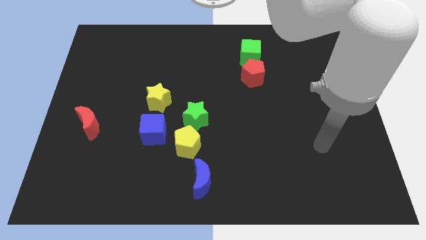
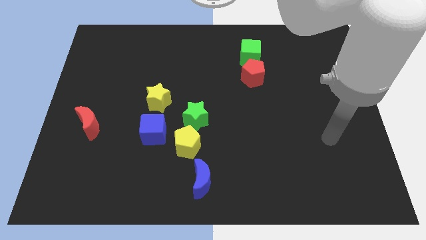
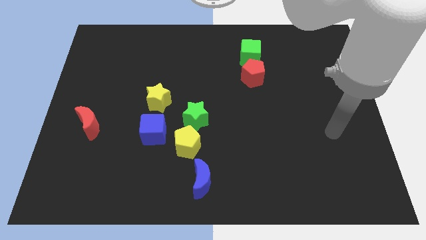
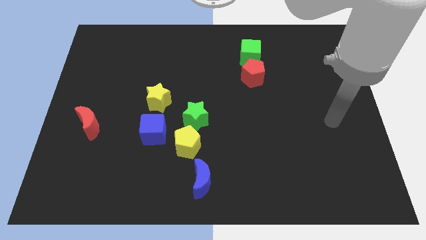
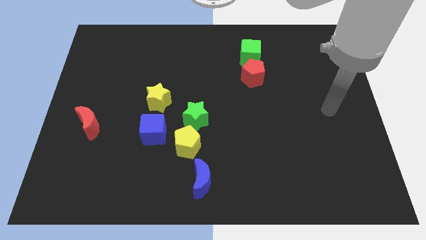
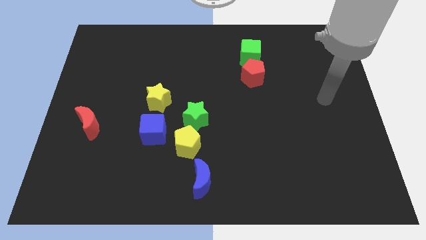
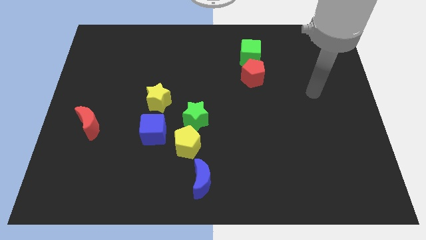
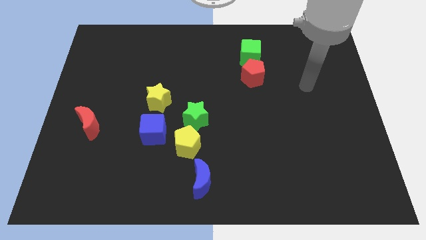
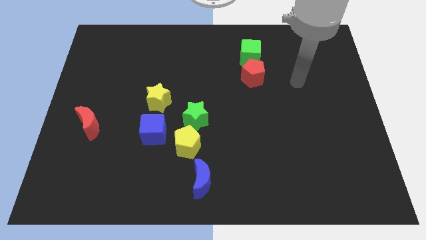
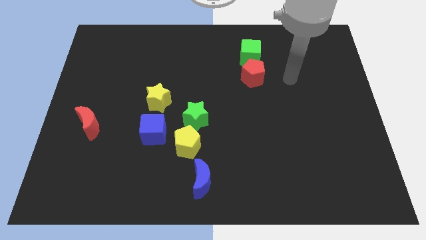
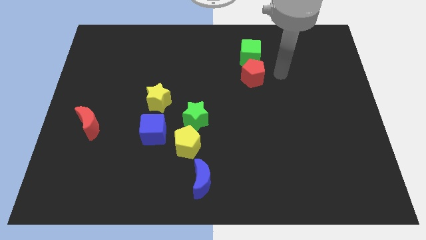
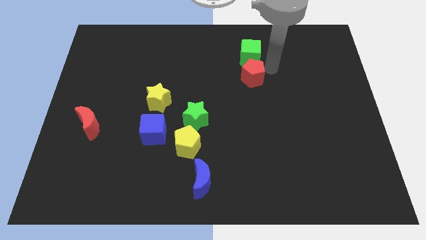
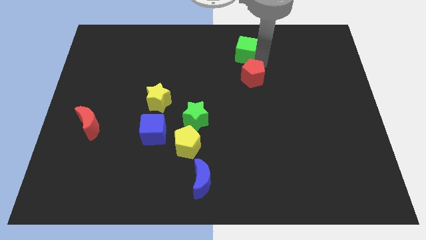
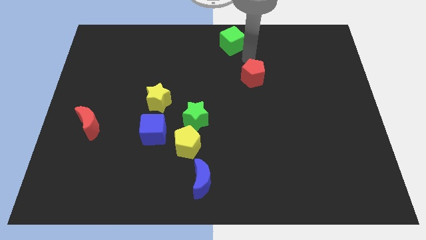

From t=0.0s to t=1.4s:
move the red pentagon away from the green cube

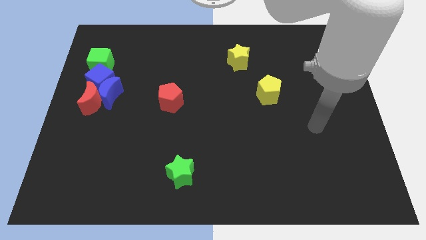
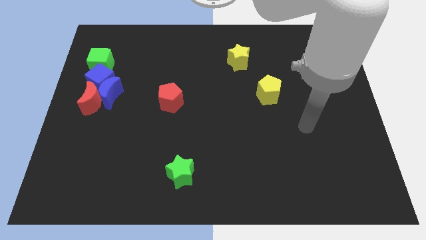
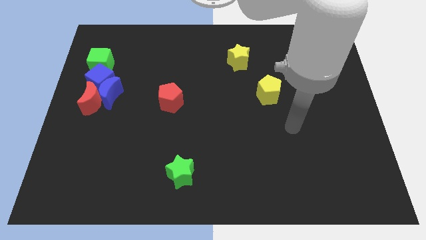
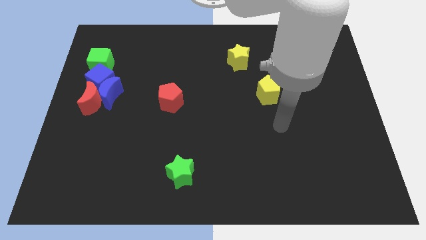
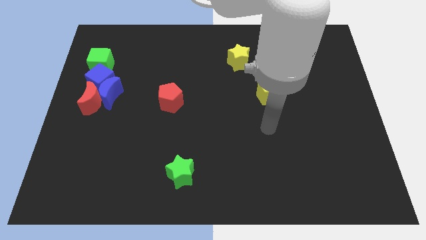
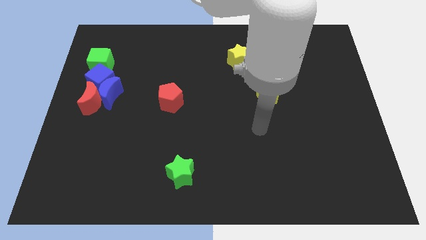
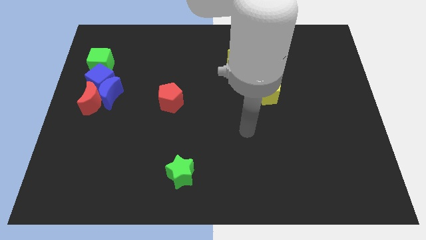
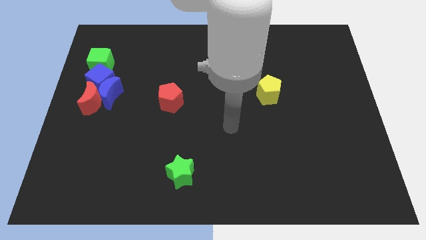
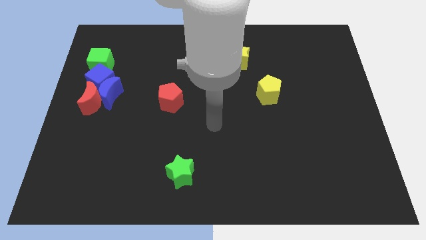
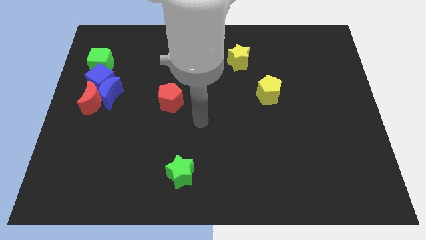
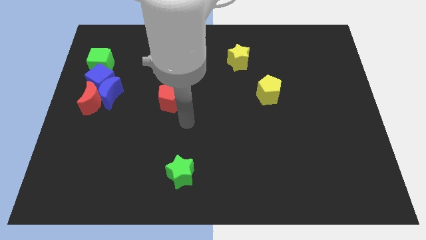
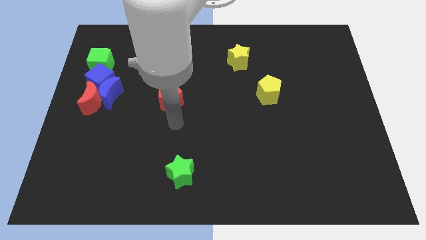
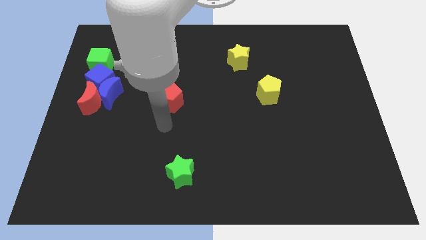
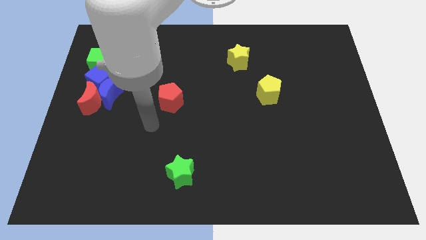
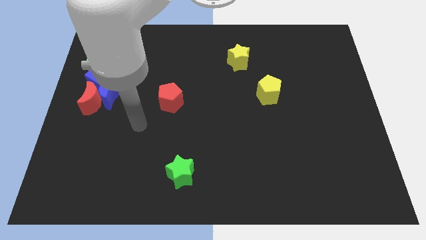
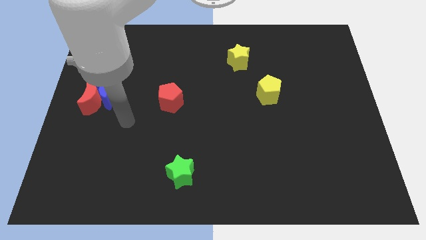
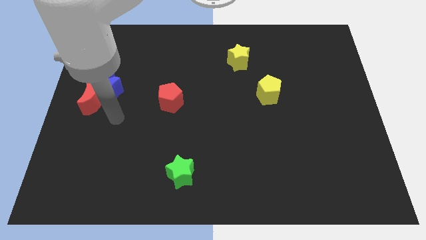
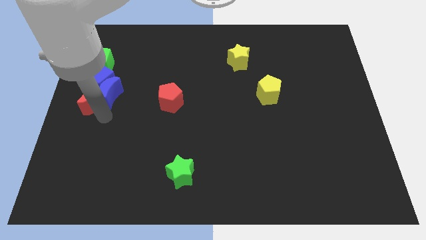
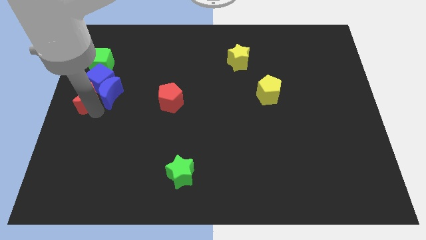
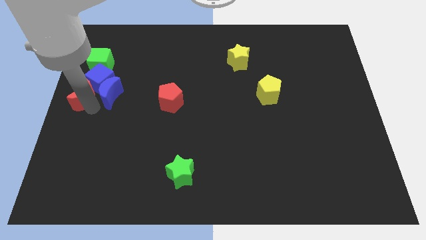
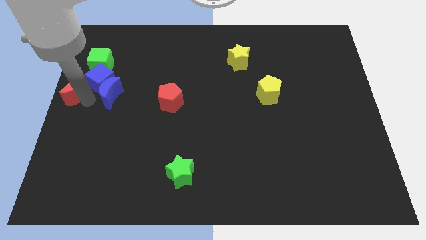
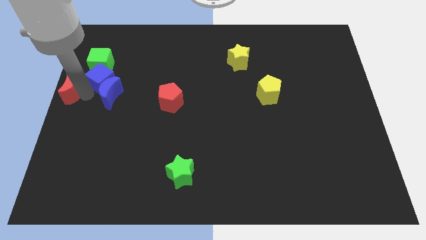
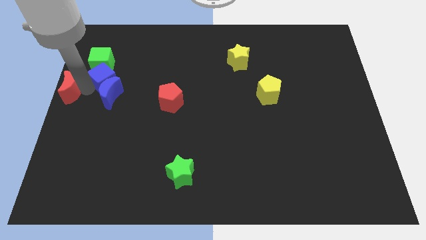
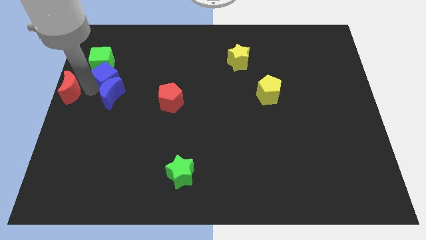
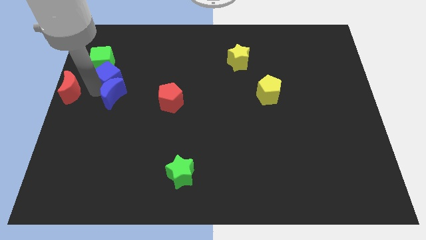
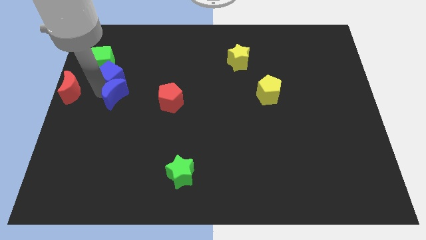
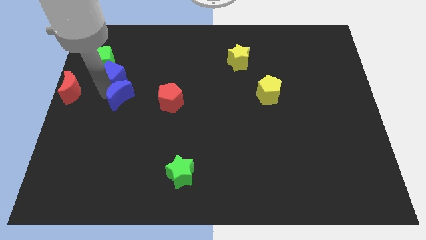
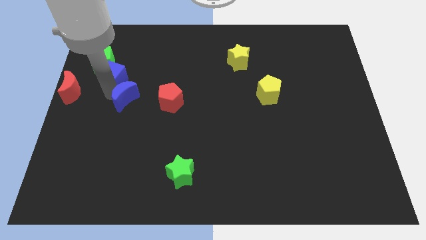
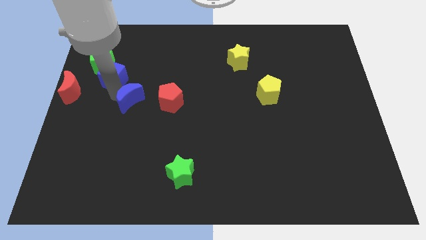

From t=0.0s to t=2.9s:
separate the blue moon from the red moon and blue cube

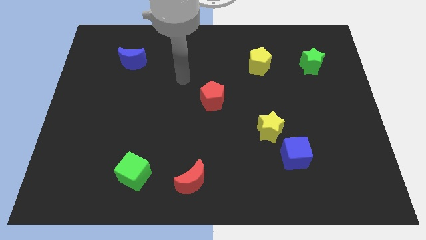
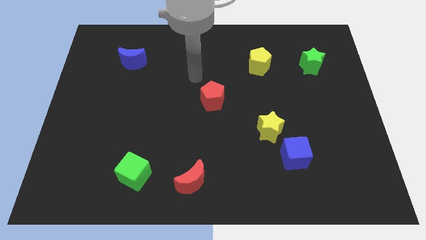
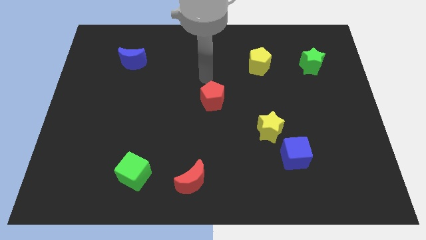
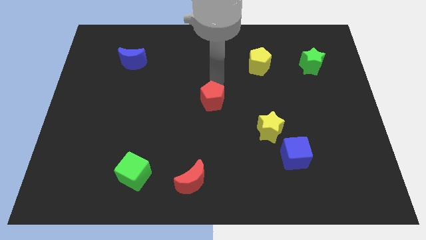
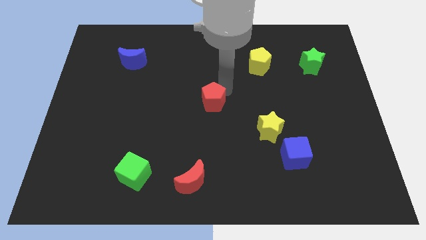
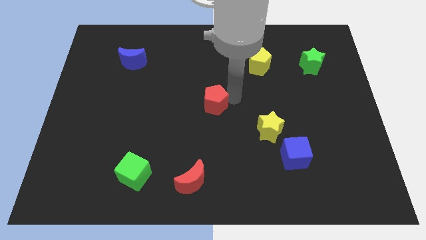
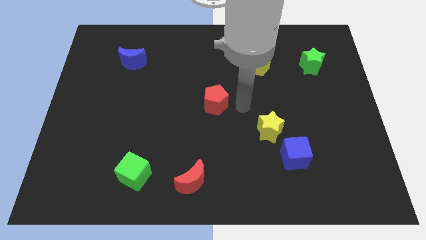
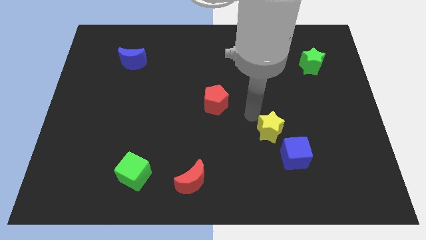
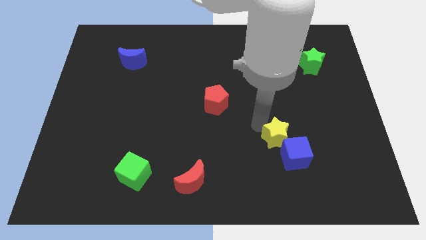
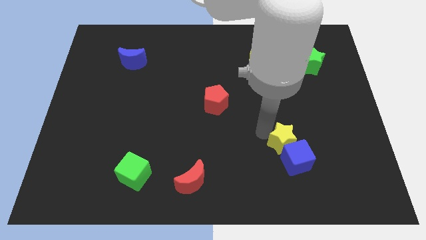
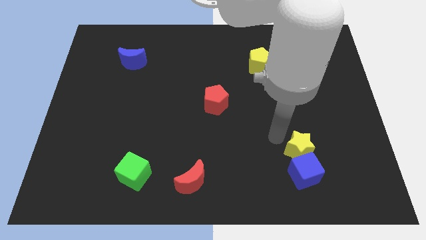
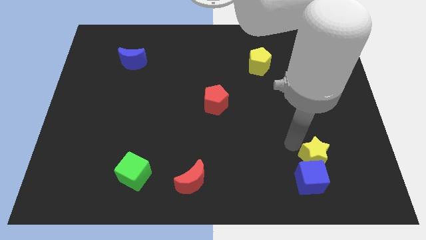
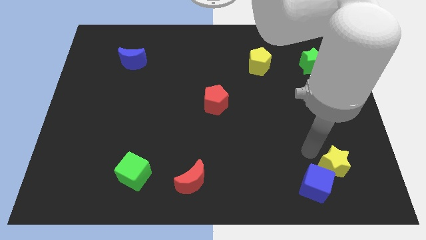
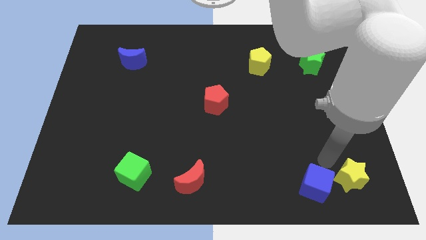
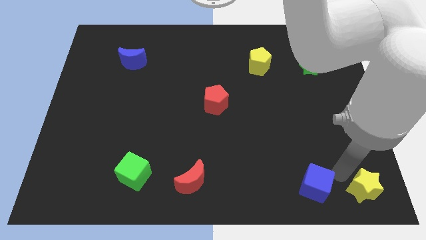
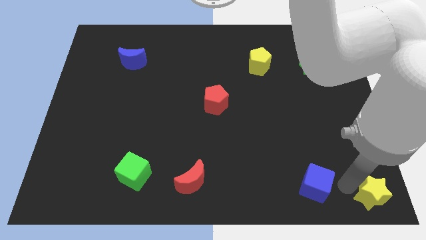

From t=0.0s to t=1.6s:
separate the blue cube from the yellow star

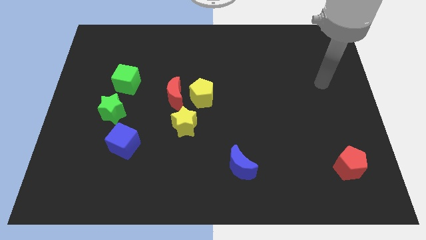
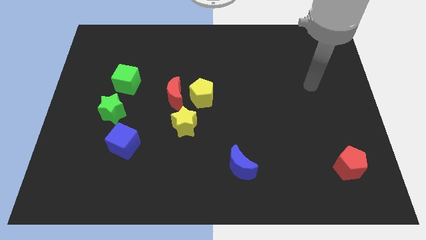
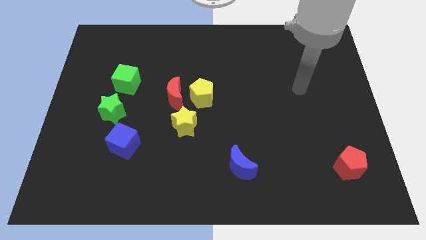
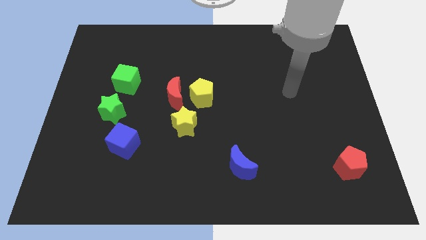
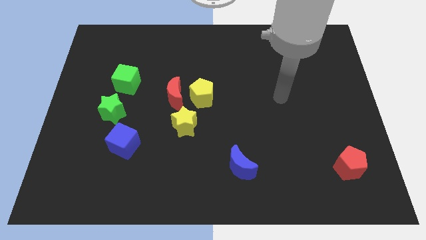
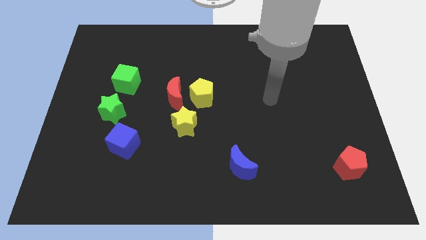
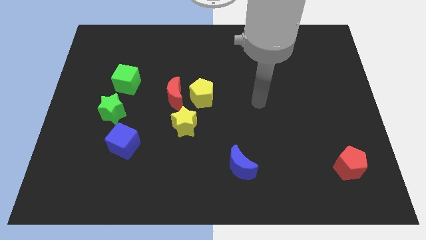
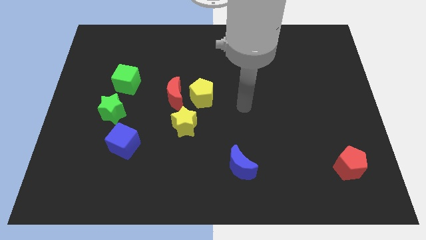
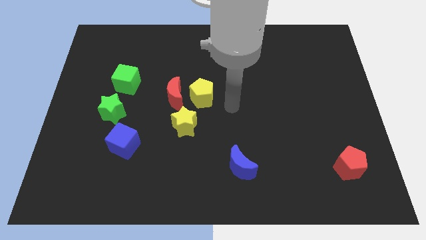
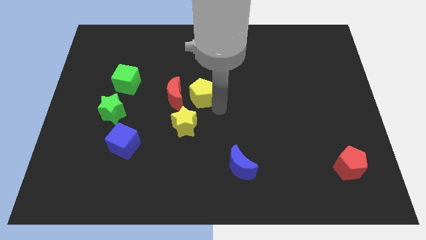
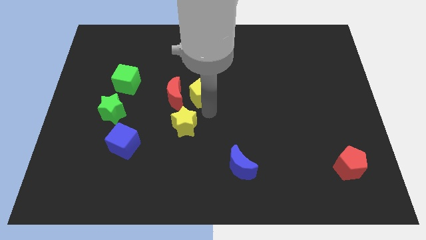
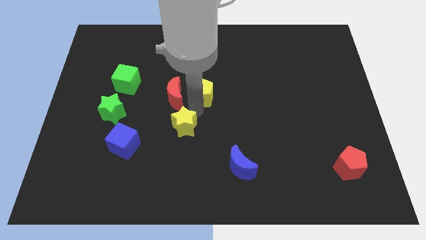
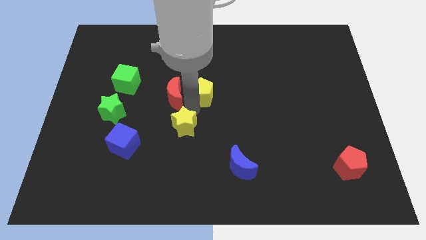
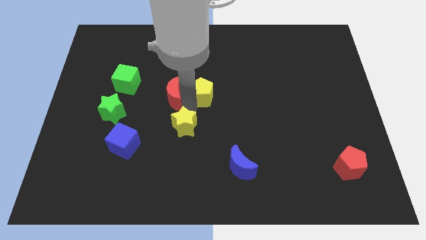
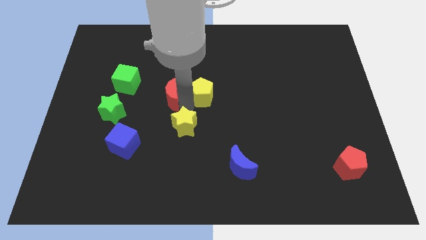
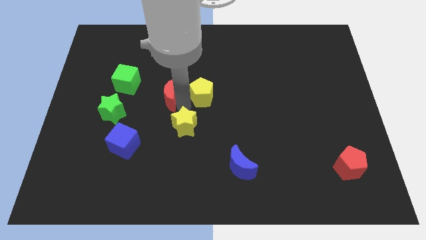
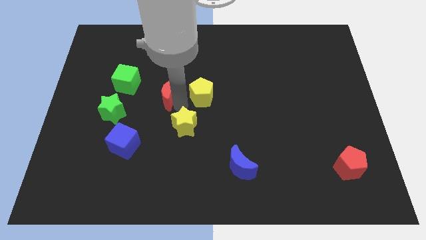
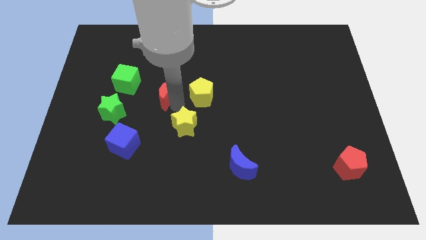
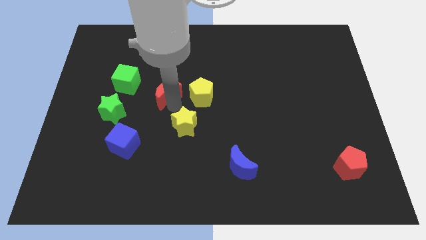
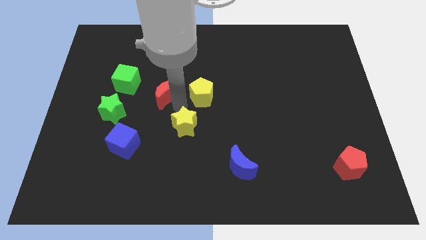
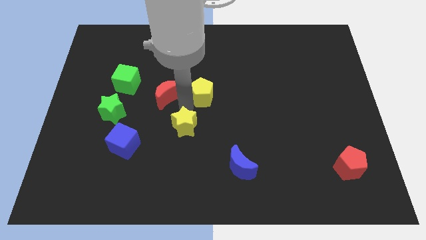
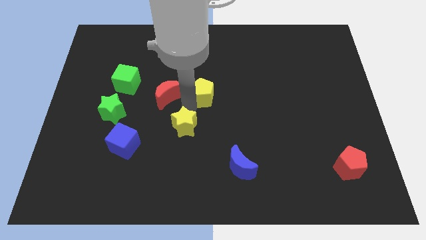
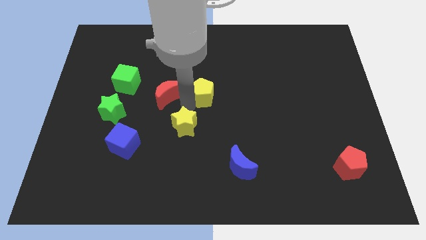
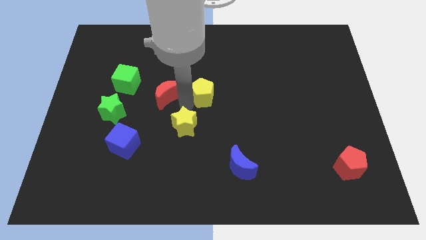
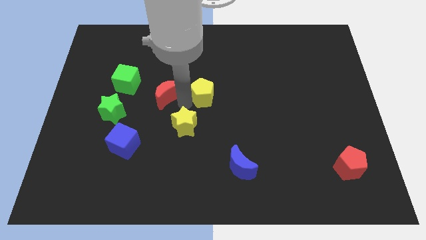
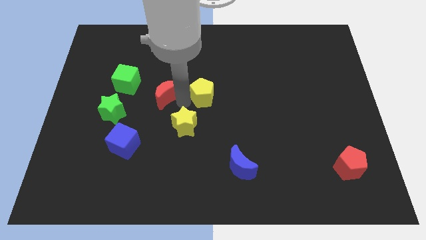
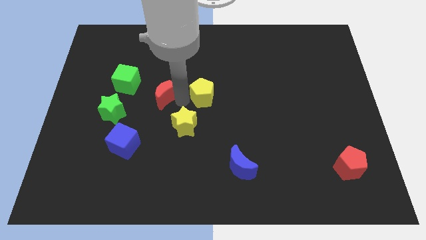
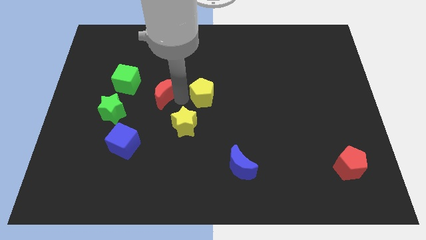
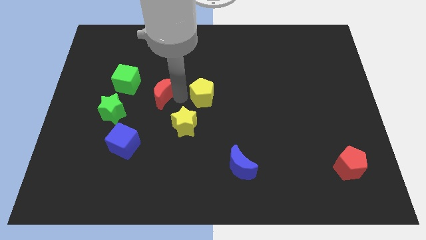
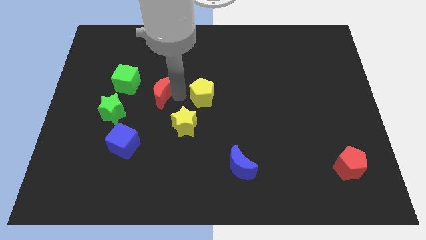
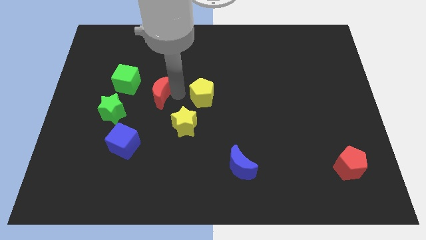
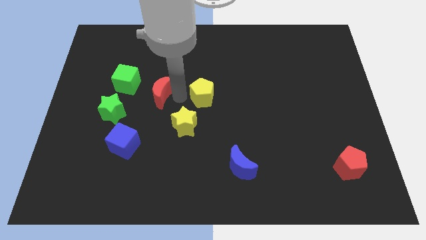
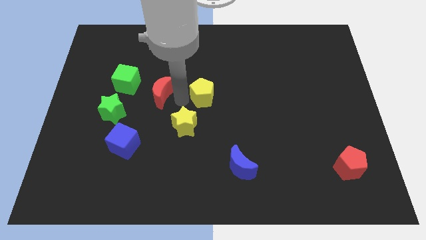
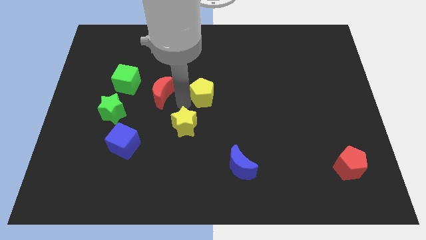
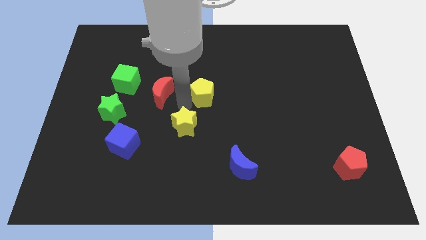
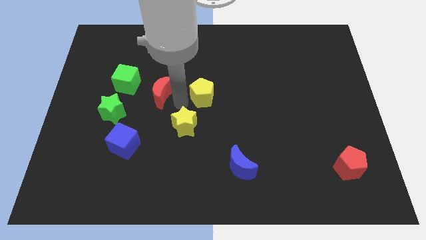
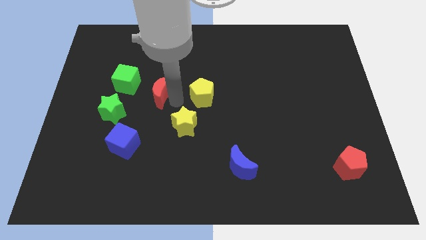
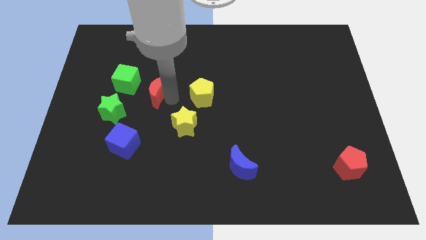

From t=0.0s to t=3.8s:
move the red moon away from the yellow pentagon and yellow star
